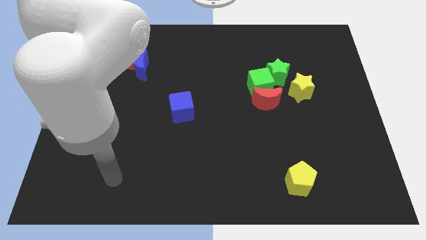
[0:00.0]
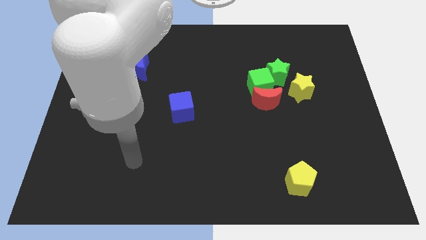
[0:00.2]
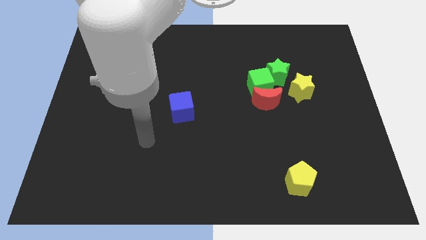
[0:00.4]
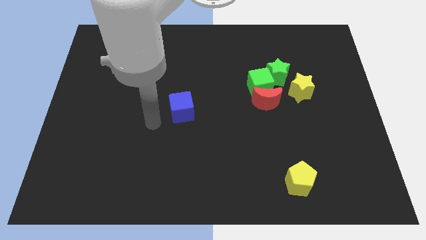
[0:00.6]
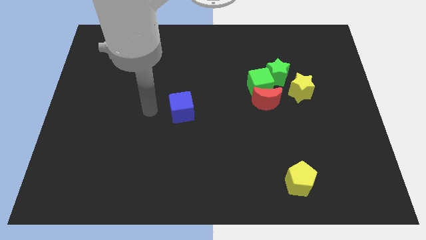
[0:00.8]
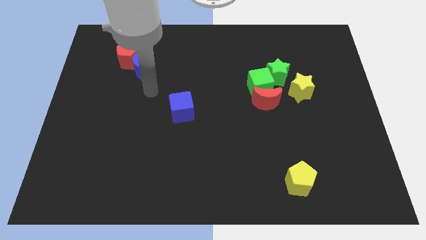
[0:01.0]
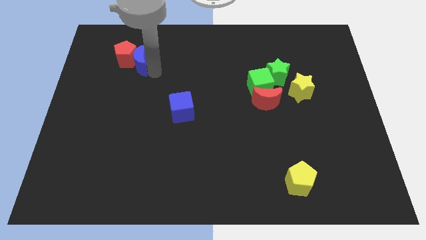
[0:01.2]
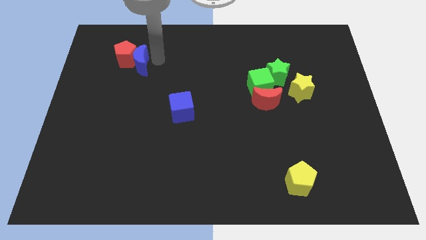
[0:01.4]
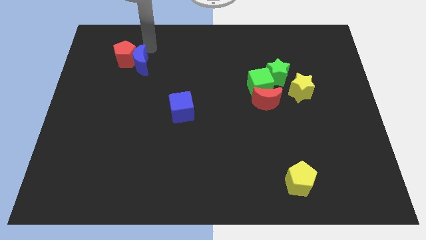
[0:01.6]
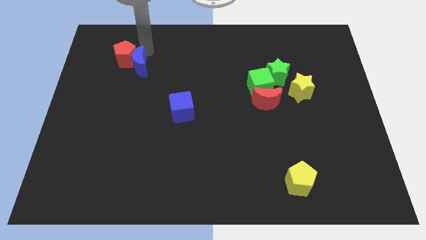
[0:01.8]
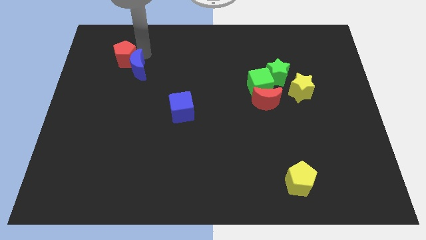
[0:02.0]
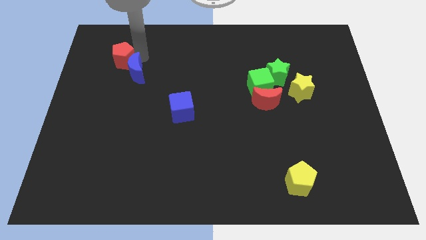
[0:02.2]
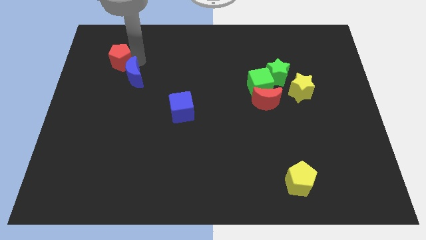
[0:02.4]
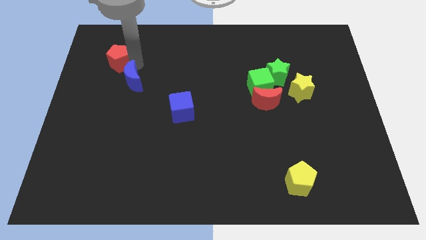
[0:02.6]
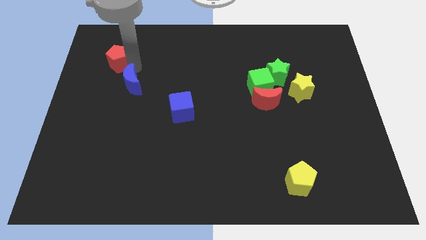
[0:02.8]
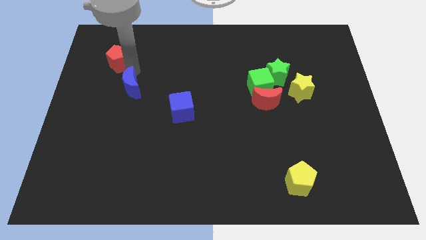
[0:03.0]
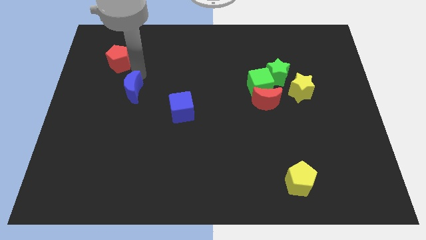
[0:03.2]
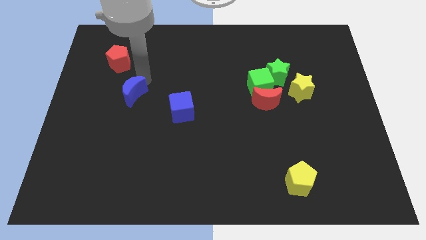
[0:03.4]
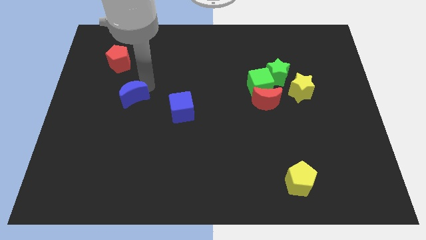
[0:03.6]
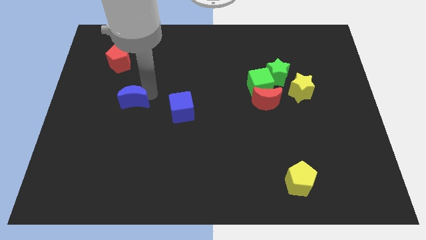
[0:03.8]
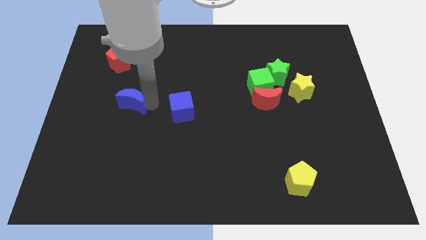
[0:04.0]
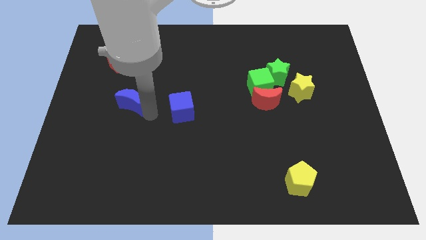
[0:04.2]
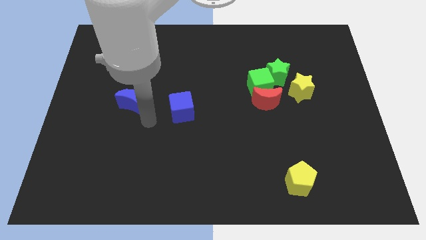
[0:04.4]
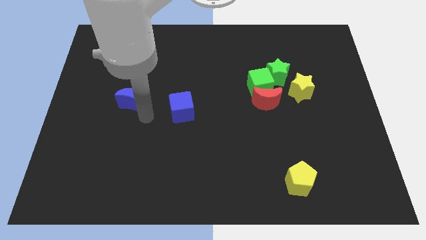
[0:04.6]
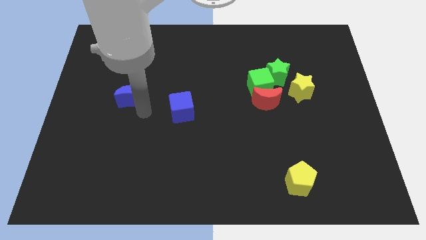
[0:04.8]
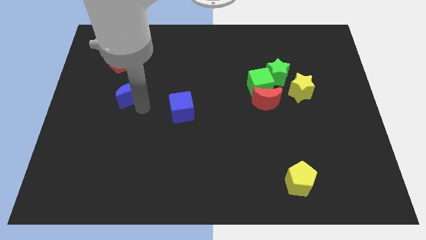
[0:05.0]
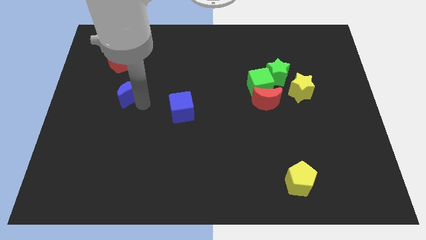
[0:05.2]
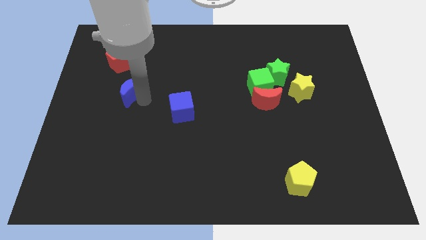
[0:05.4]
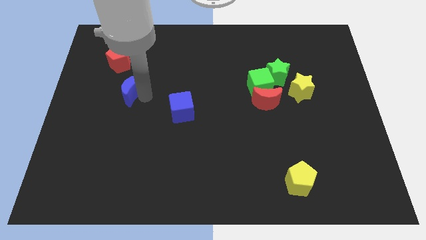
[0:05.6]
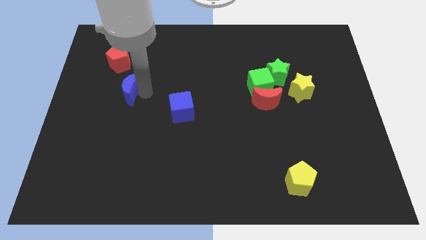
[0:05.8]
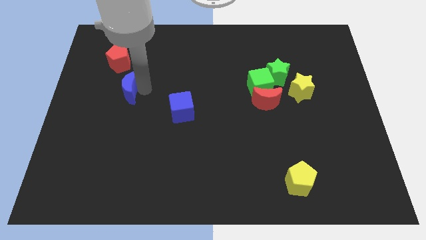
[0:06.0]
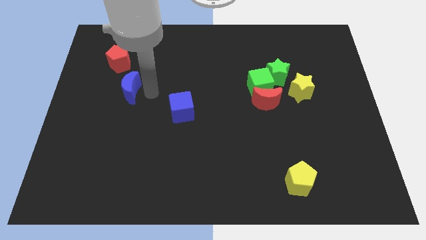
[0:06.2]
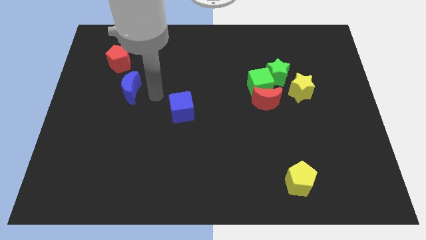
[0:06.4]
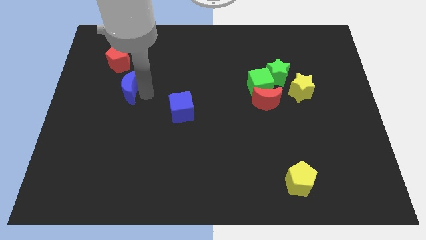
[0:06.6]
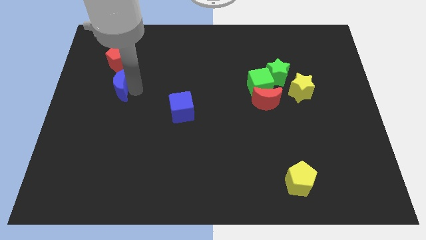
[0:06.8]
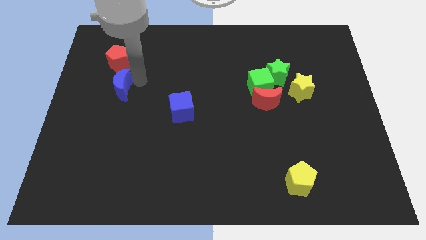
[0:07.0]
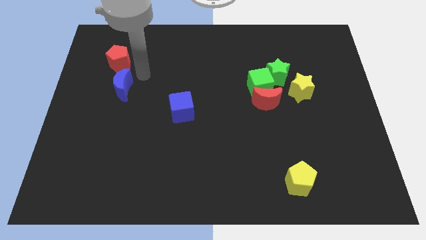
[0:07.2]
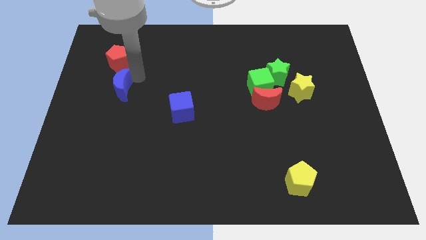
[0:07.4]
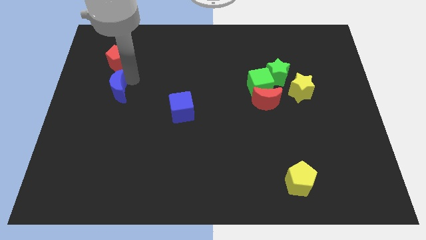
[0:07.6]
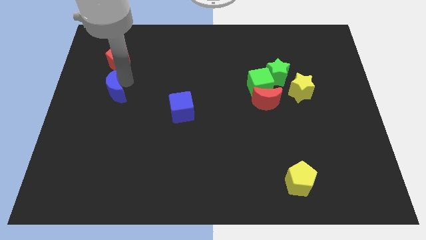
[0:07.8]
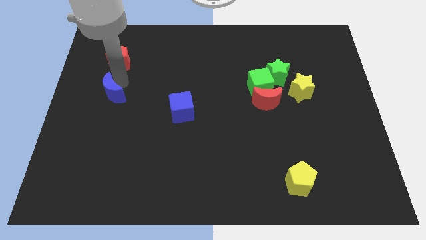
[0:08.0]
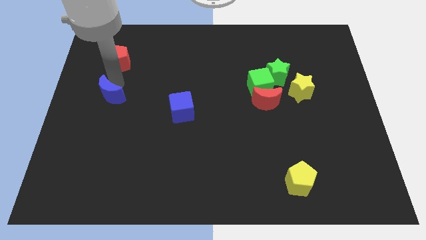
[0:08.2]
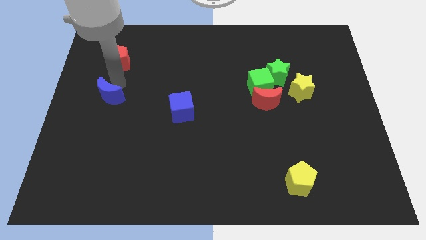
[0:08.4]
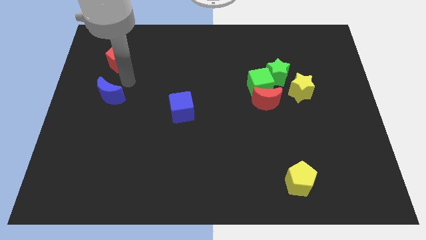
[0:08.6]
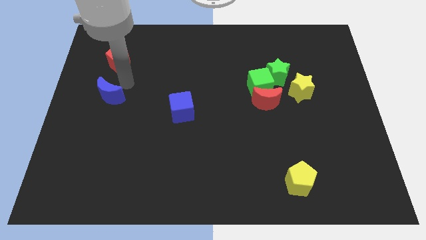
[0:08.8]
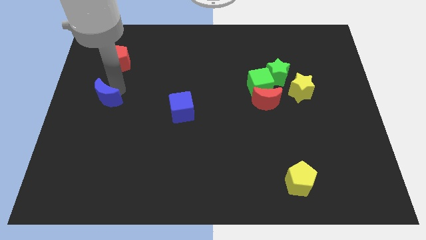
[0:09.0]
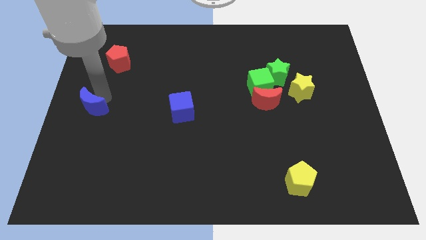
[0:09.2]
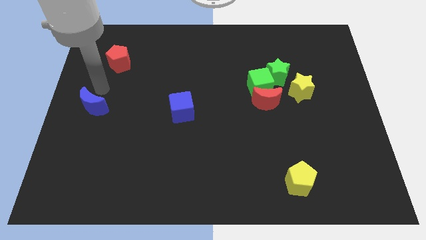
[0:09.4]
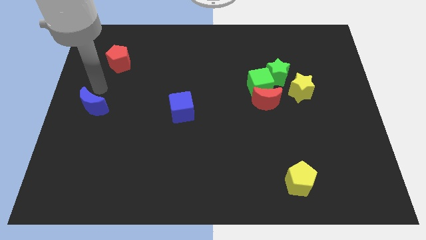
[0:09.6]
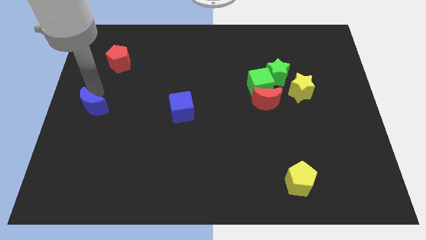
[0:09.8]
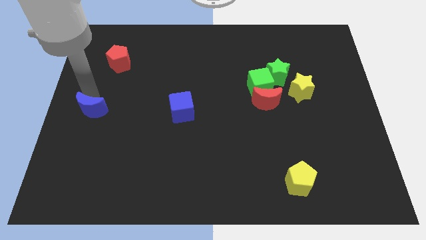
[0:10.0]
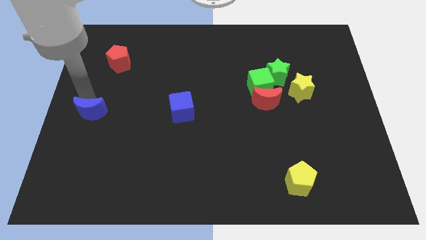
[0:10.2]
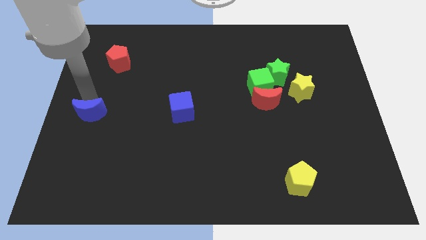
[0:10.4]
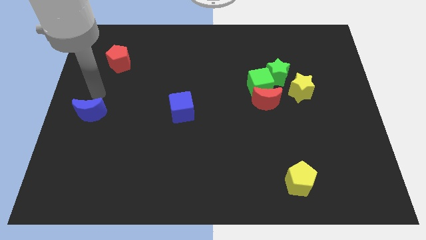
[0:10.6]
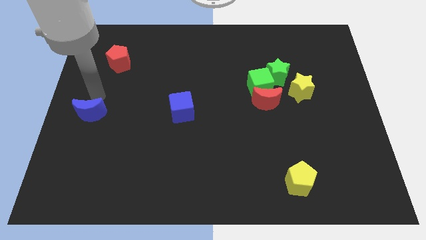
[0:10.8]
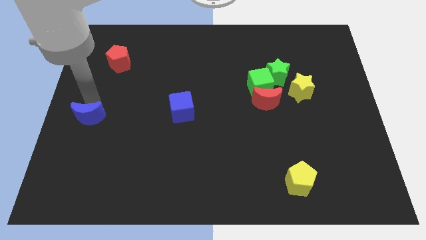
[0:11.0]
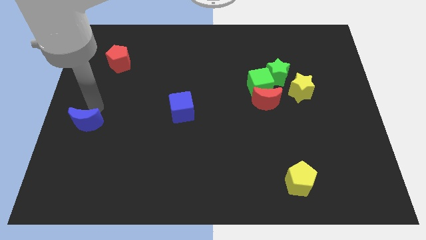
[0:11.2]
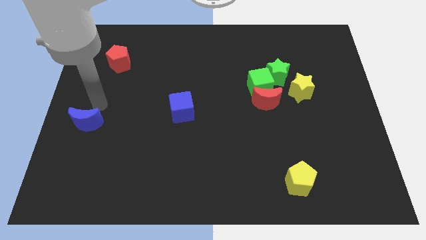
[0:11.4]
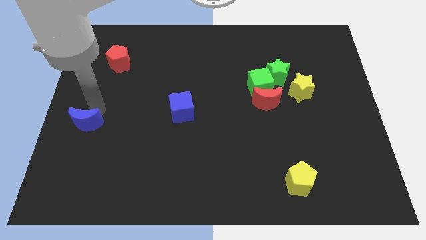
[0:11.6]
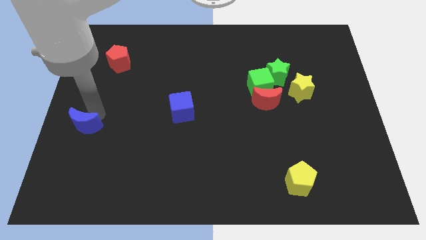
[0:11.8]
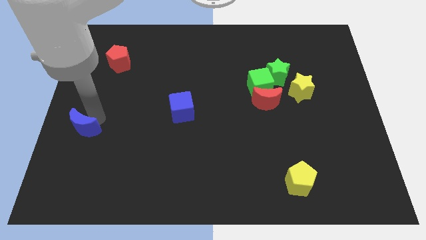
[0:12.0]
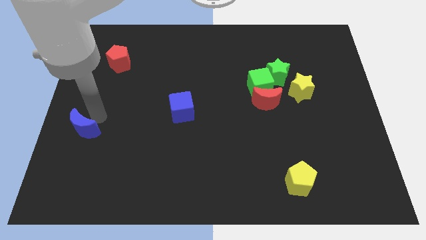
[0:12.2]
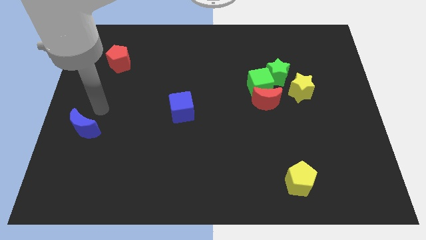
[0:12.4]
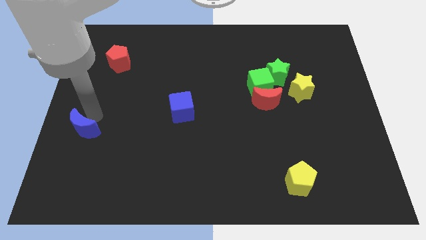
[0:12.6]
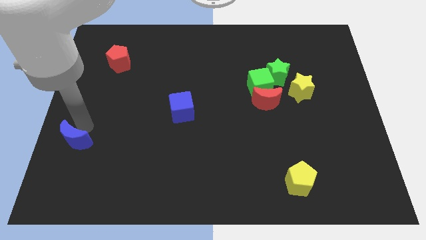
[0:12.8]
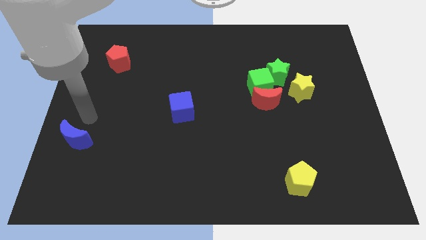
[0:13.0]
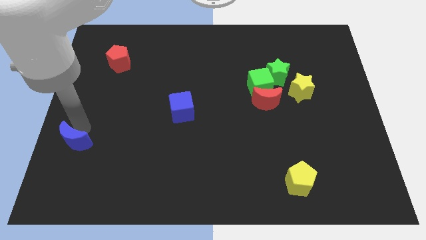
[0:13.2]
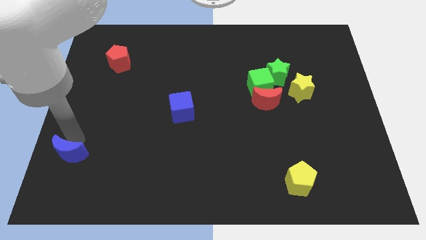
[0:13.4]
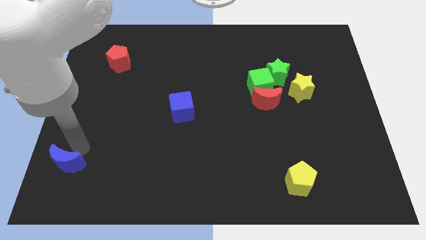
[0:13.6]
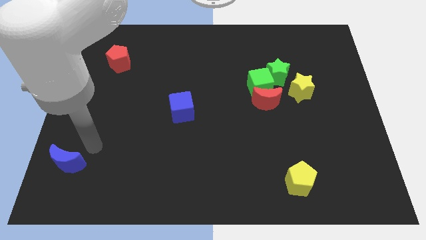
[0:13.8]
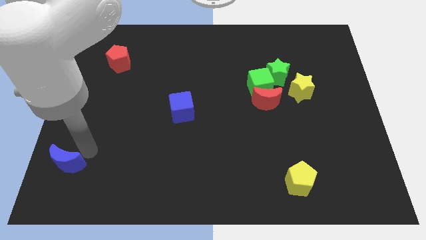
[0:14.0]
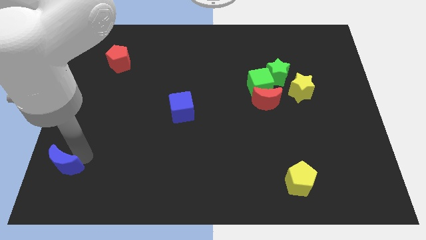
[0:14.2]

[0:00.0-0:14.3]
slide the blue moon to the bottom left

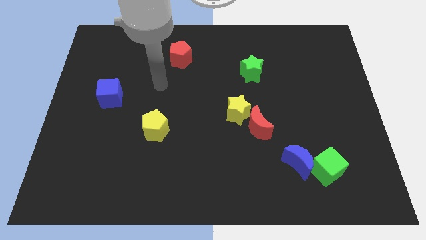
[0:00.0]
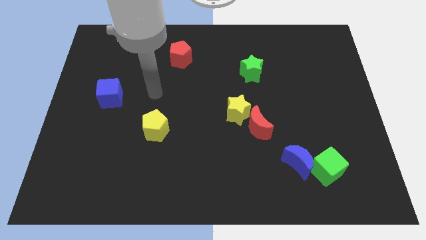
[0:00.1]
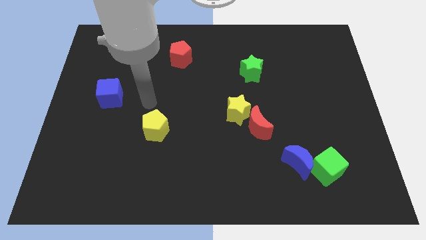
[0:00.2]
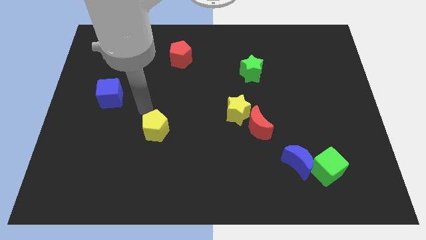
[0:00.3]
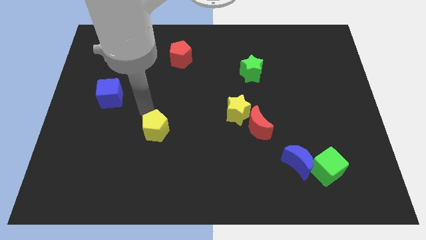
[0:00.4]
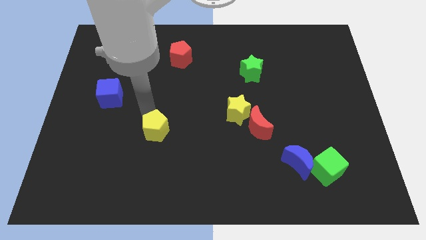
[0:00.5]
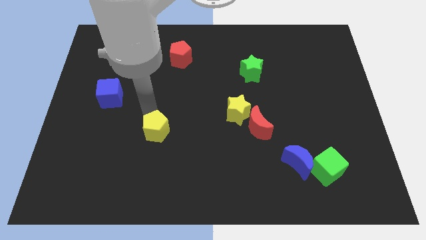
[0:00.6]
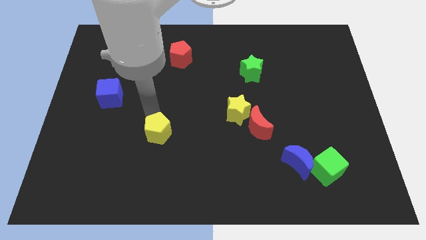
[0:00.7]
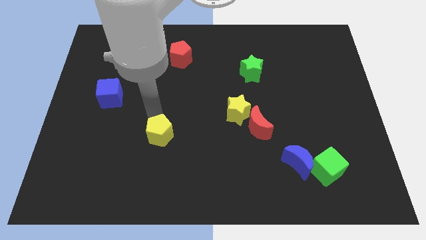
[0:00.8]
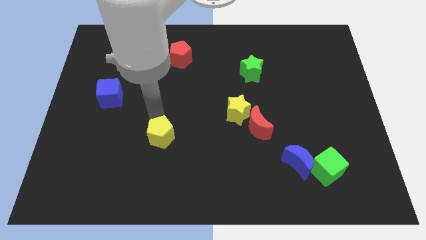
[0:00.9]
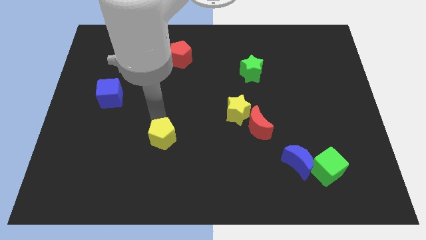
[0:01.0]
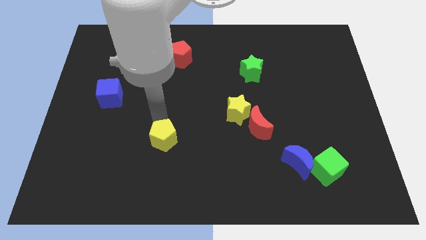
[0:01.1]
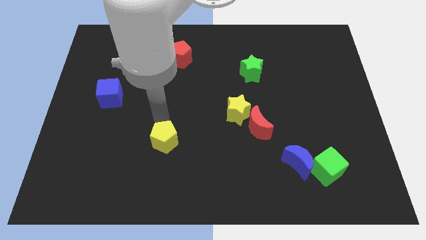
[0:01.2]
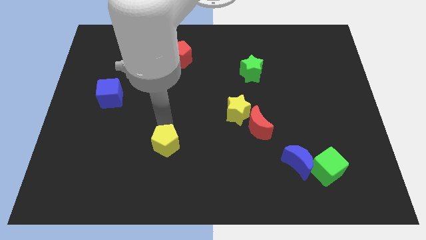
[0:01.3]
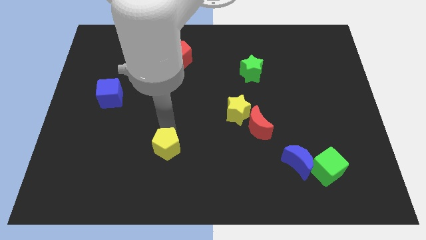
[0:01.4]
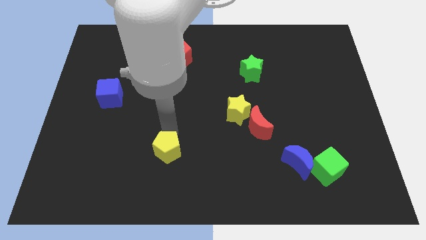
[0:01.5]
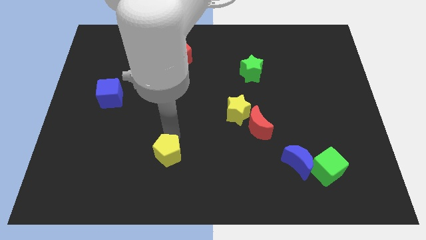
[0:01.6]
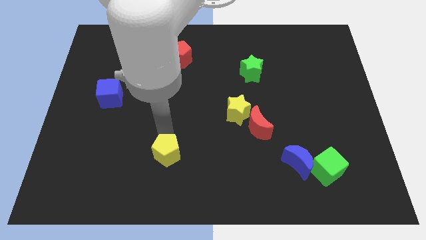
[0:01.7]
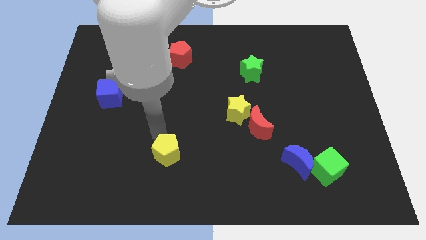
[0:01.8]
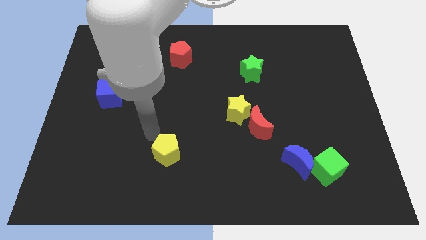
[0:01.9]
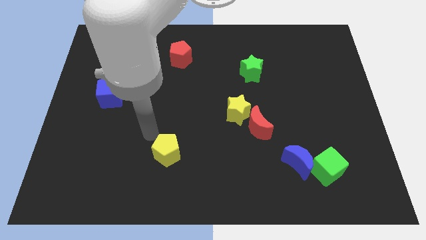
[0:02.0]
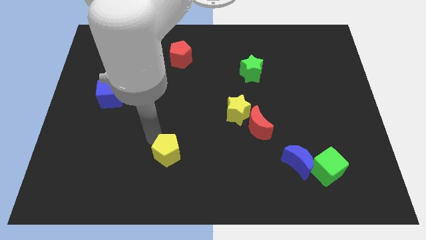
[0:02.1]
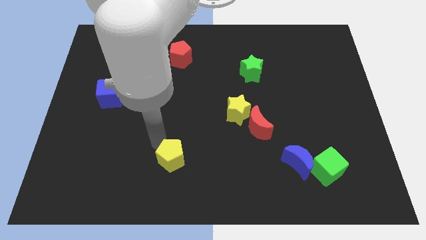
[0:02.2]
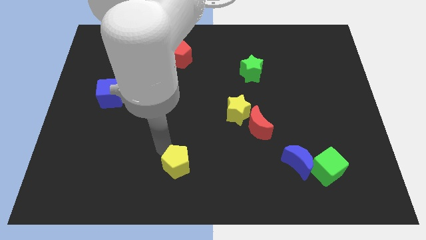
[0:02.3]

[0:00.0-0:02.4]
slide the yellow pentagon to the bottom side
